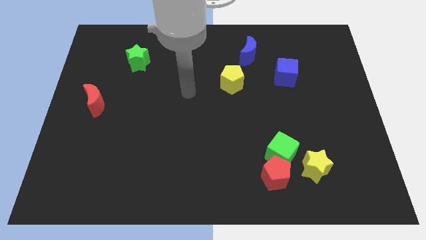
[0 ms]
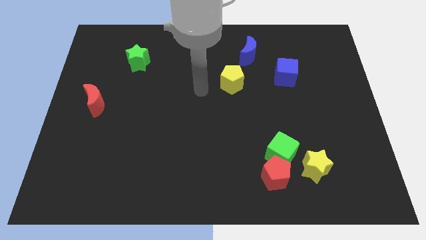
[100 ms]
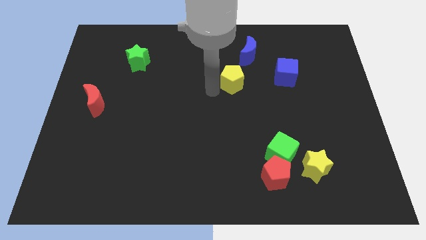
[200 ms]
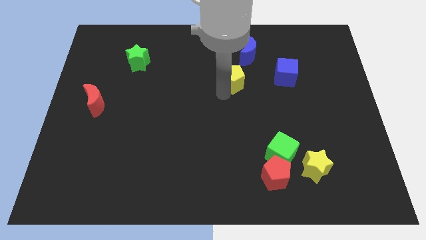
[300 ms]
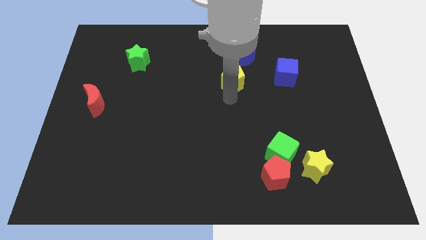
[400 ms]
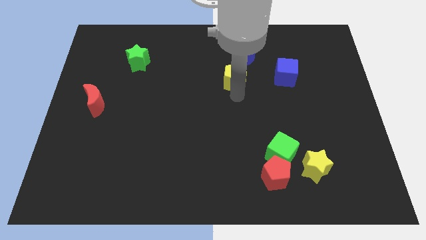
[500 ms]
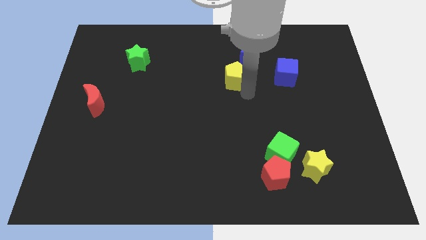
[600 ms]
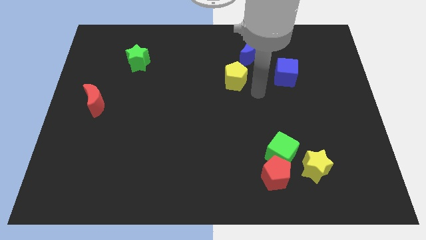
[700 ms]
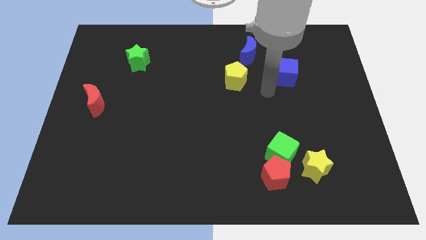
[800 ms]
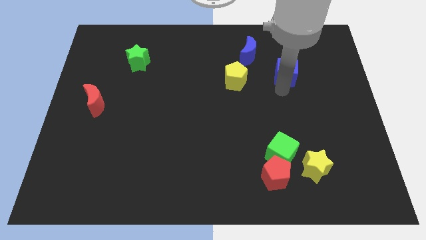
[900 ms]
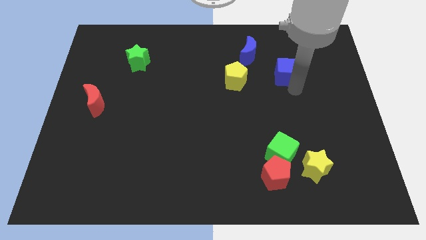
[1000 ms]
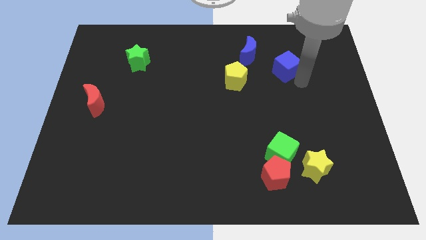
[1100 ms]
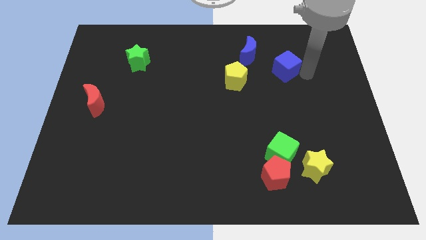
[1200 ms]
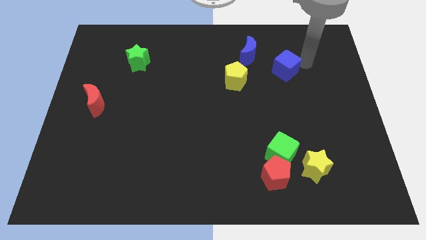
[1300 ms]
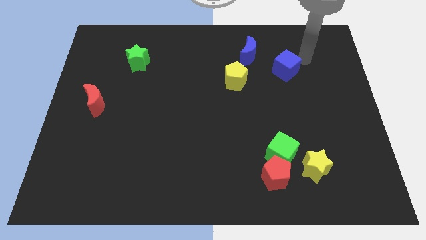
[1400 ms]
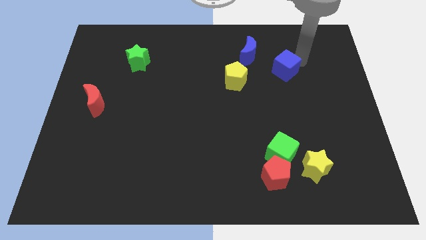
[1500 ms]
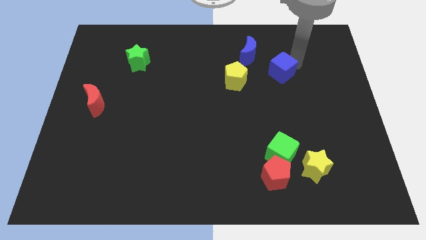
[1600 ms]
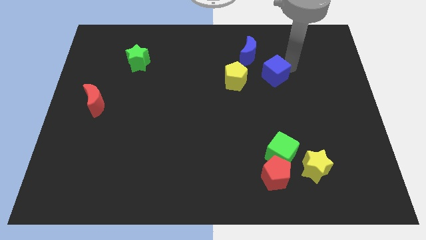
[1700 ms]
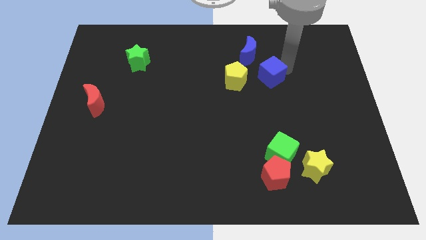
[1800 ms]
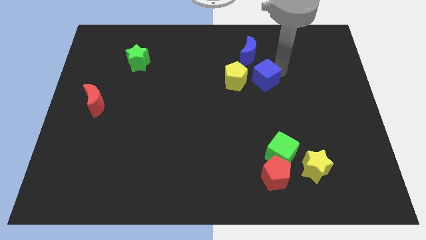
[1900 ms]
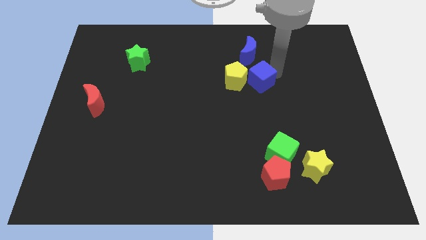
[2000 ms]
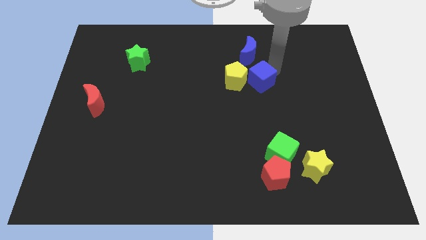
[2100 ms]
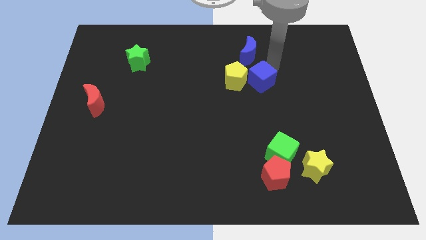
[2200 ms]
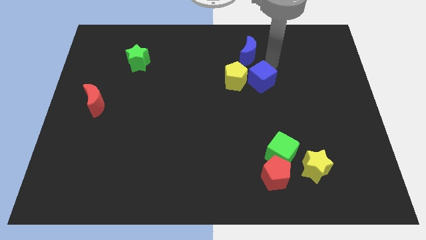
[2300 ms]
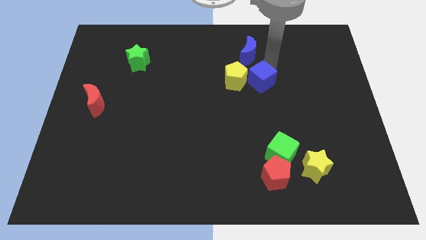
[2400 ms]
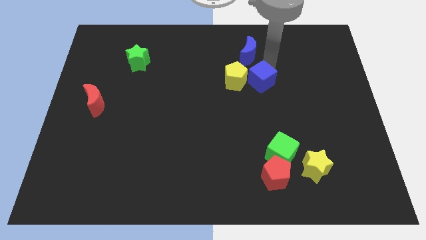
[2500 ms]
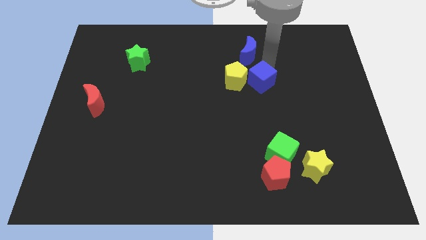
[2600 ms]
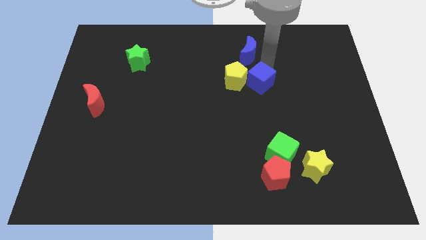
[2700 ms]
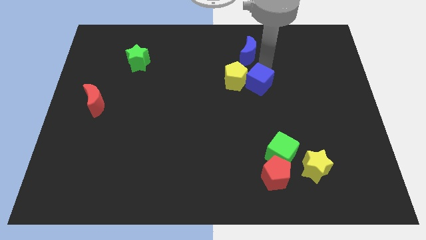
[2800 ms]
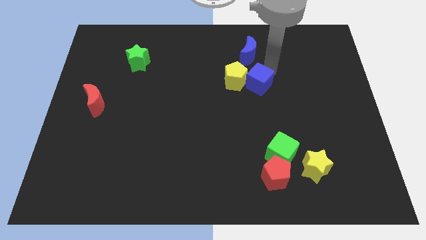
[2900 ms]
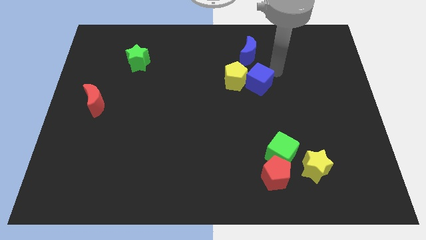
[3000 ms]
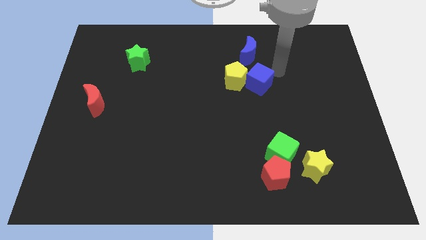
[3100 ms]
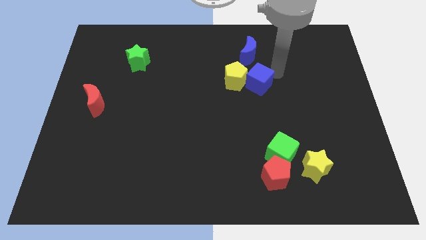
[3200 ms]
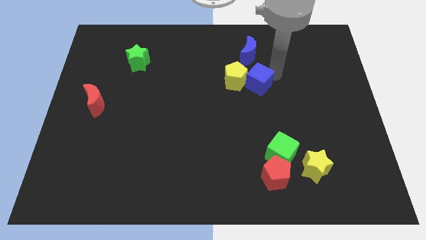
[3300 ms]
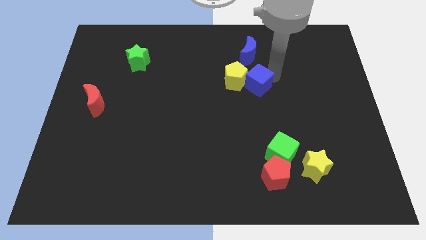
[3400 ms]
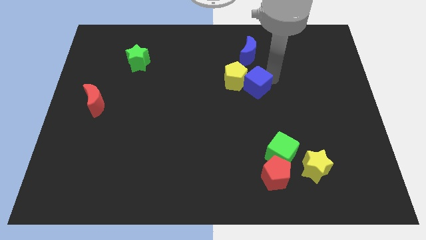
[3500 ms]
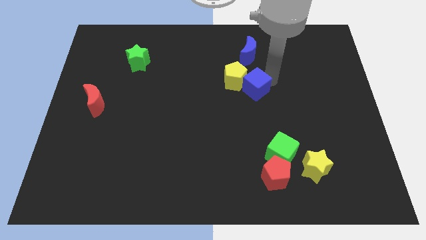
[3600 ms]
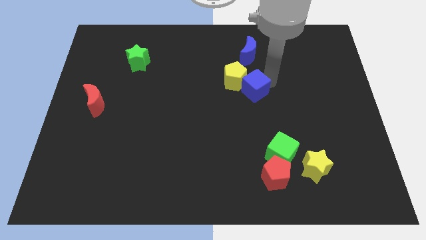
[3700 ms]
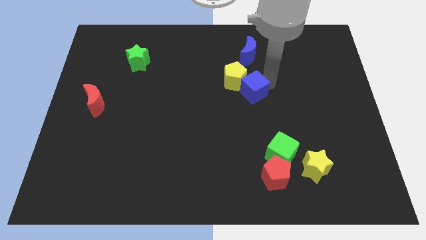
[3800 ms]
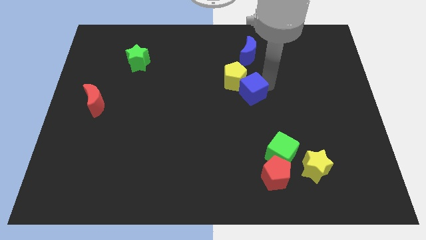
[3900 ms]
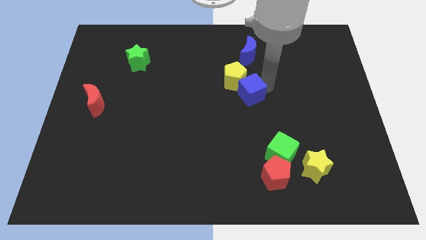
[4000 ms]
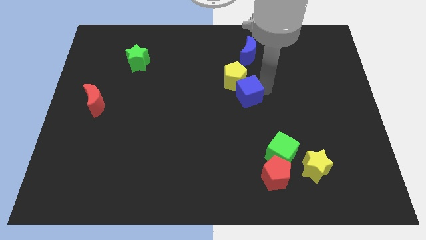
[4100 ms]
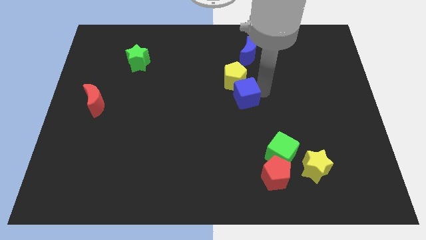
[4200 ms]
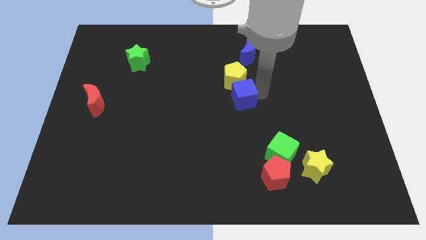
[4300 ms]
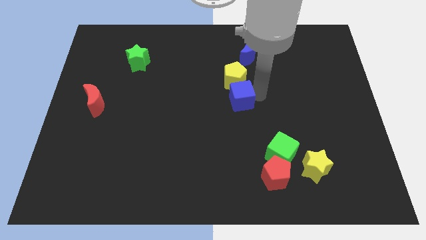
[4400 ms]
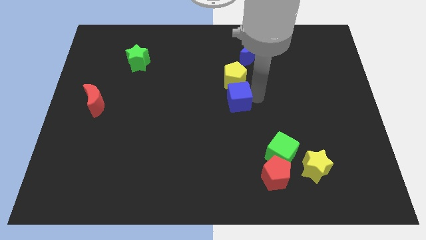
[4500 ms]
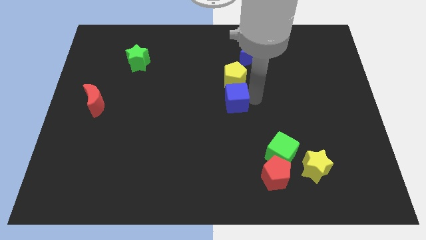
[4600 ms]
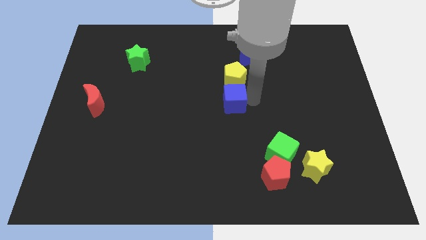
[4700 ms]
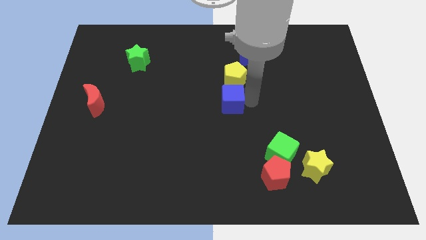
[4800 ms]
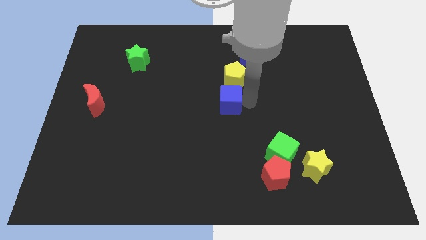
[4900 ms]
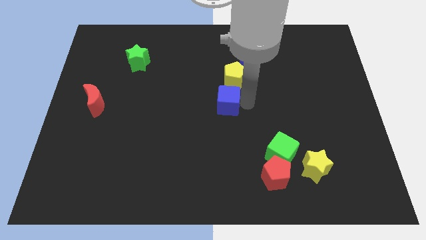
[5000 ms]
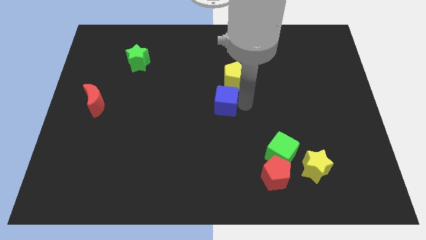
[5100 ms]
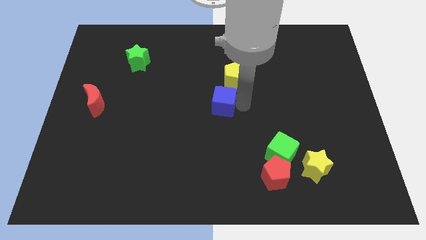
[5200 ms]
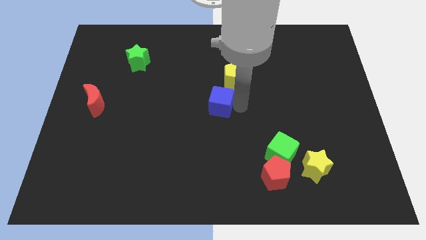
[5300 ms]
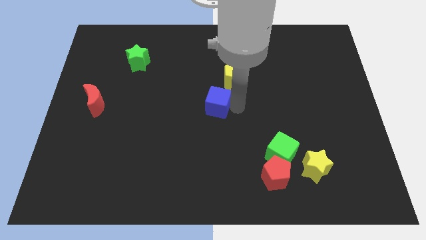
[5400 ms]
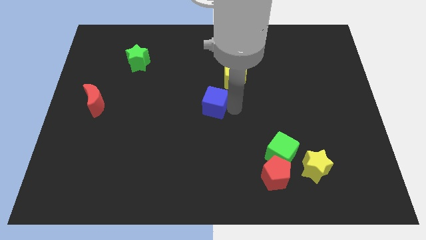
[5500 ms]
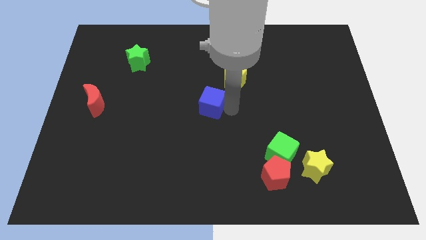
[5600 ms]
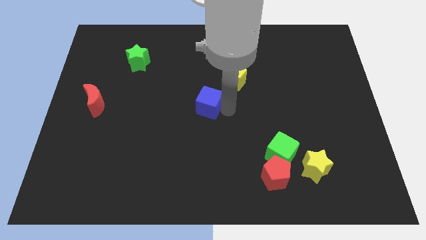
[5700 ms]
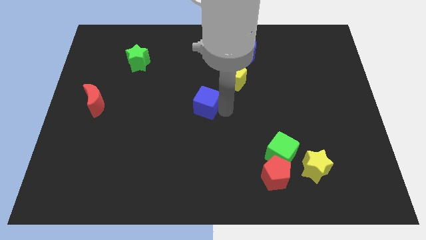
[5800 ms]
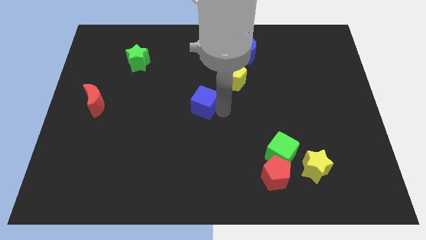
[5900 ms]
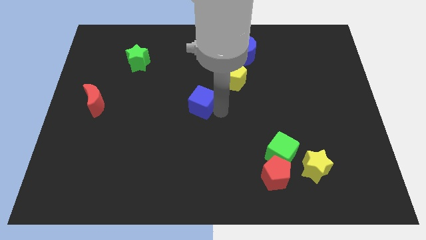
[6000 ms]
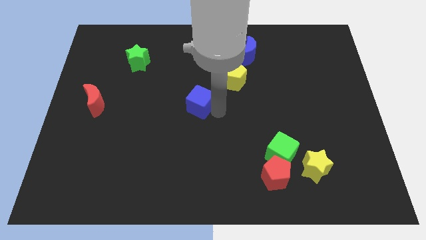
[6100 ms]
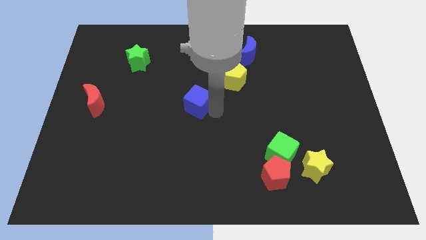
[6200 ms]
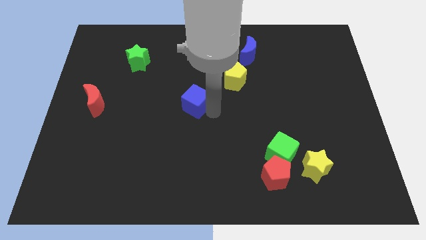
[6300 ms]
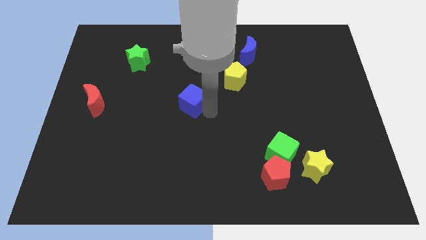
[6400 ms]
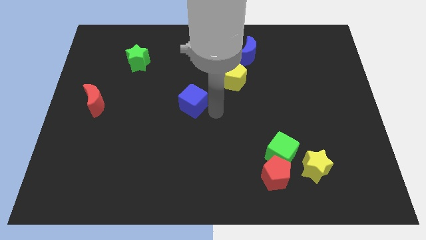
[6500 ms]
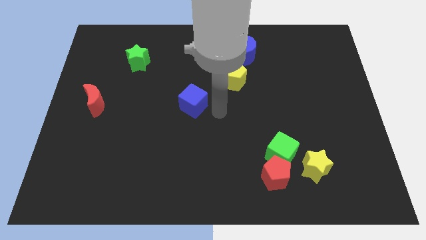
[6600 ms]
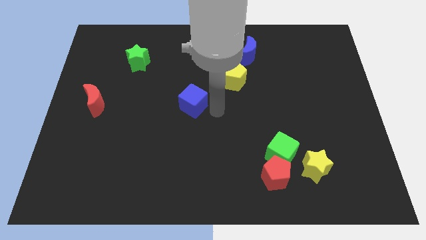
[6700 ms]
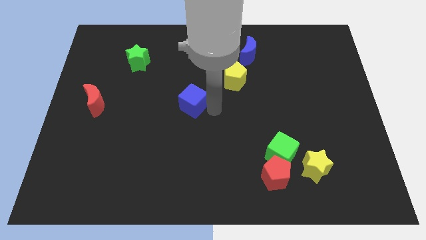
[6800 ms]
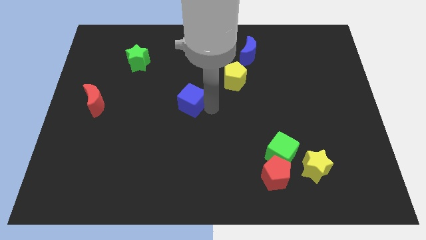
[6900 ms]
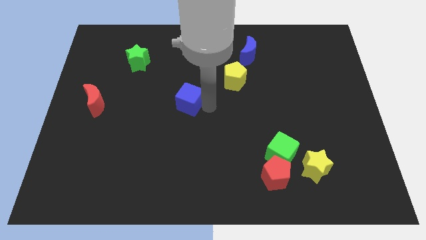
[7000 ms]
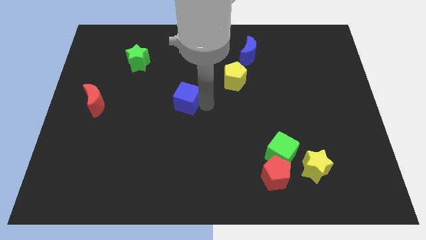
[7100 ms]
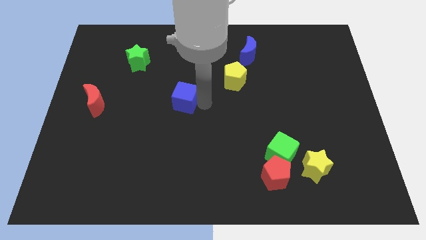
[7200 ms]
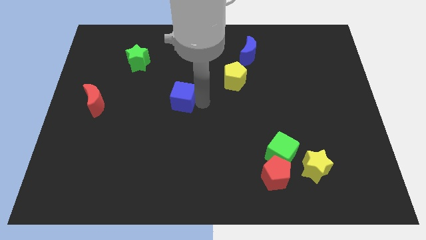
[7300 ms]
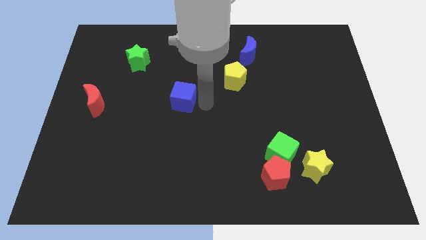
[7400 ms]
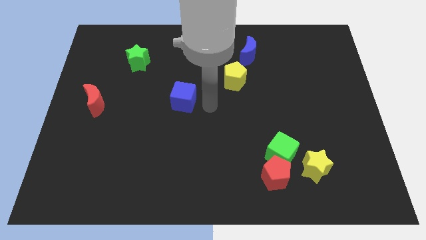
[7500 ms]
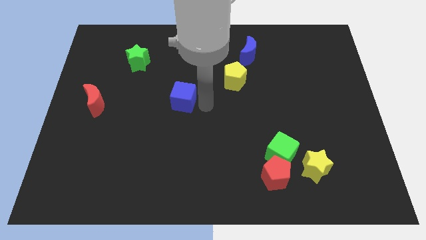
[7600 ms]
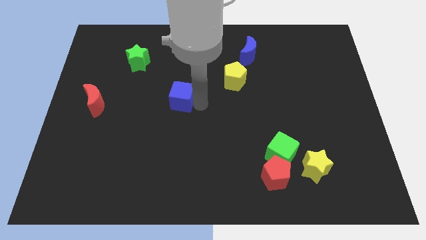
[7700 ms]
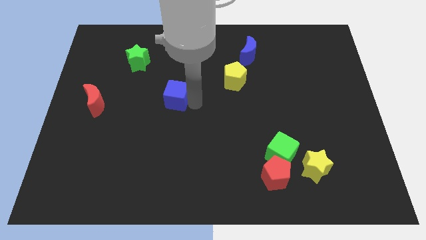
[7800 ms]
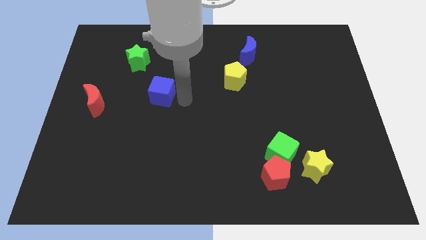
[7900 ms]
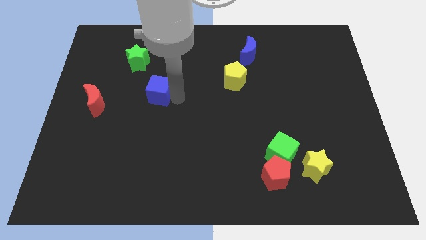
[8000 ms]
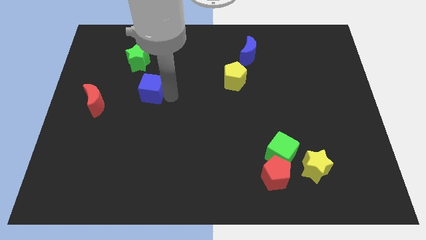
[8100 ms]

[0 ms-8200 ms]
push the blue cube to the bottom side of the green star
